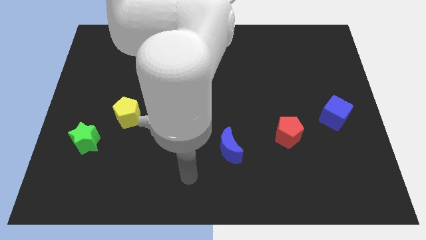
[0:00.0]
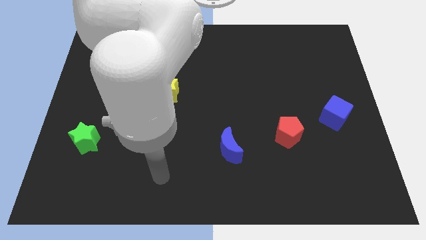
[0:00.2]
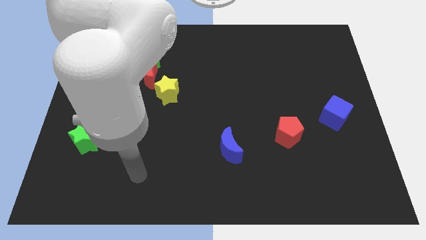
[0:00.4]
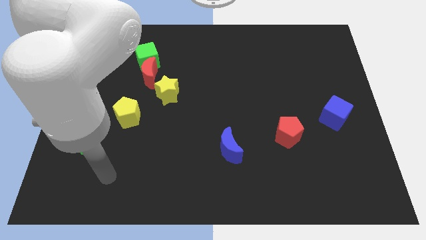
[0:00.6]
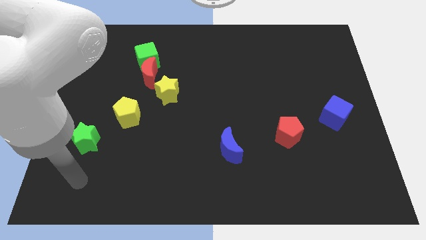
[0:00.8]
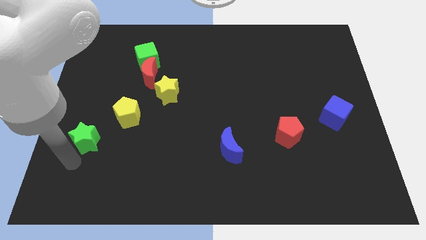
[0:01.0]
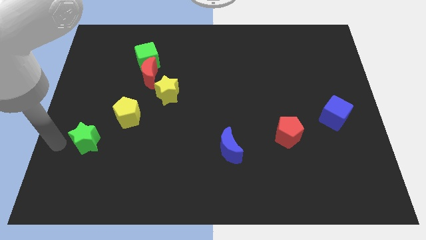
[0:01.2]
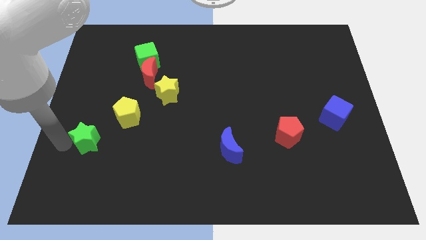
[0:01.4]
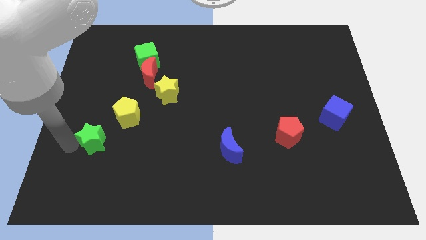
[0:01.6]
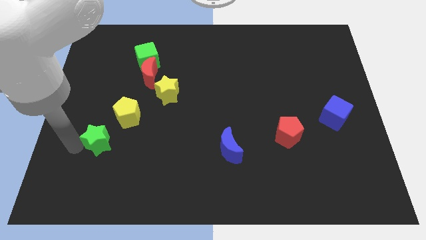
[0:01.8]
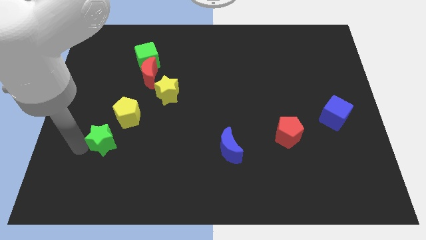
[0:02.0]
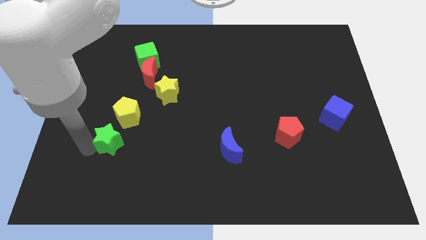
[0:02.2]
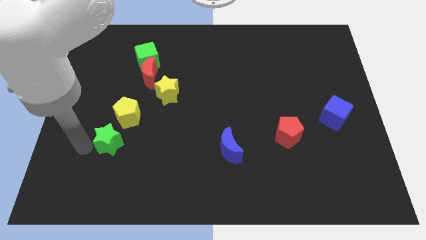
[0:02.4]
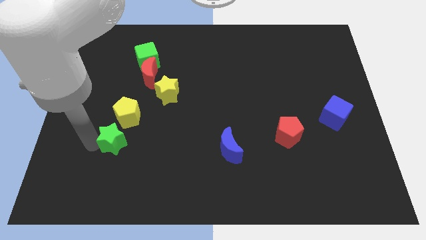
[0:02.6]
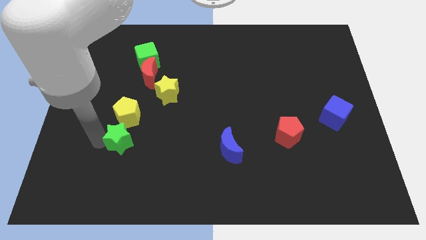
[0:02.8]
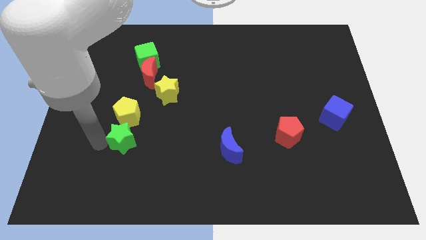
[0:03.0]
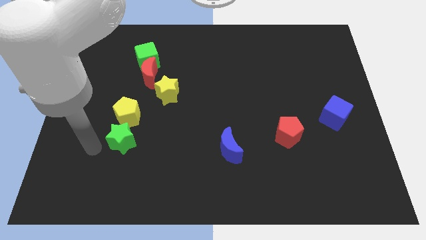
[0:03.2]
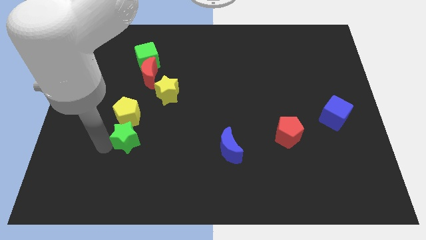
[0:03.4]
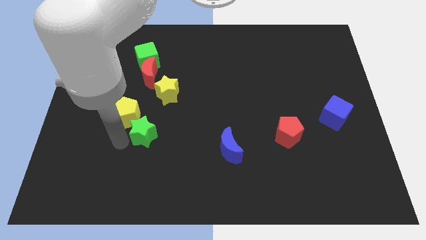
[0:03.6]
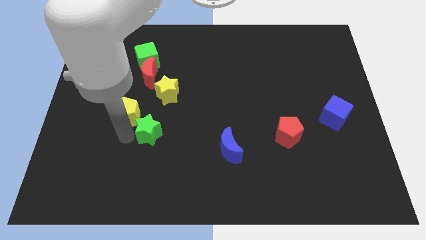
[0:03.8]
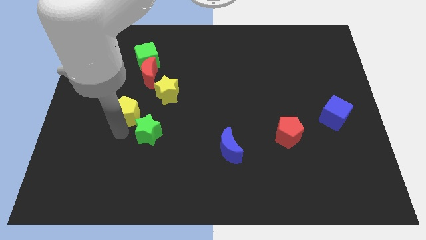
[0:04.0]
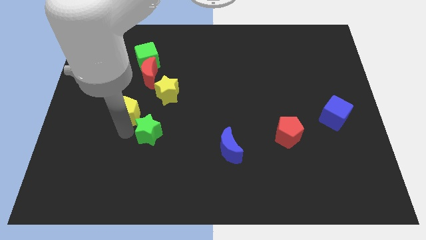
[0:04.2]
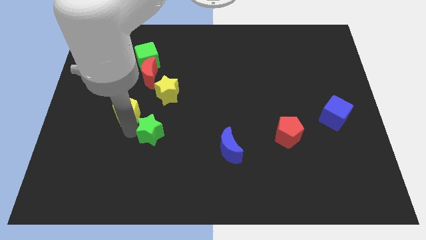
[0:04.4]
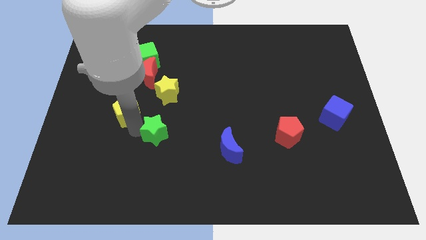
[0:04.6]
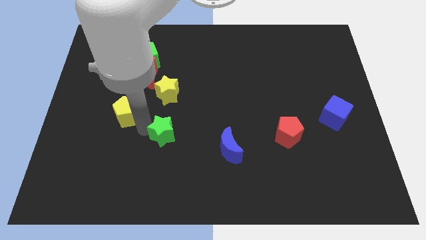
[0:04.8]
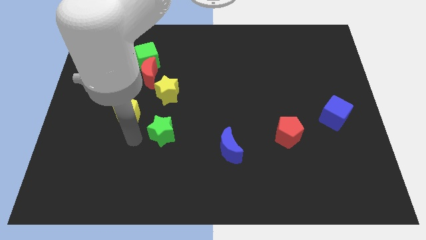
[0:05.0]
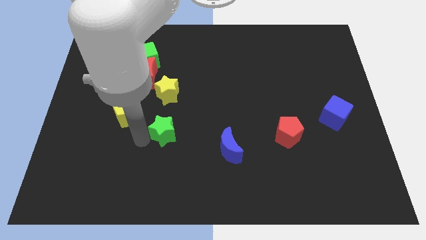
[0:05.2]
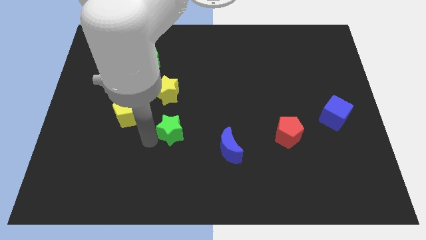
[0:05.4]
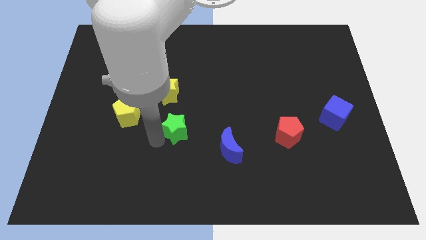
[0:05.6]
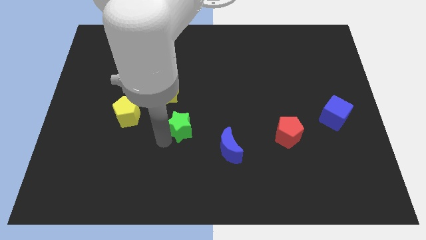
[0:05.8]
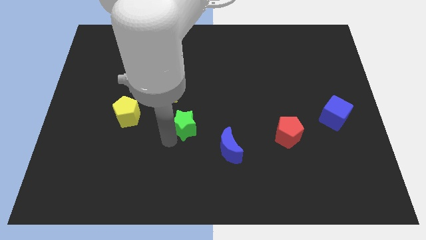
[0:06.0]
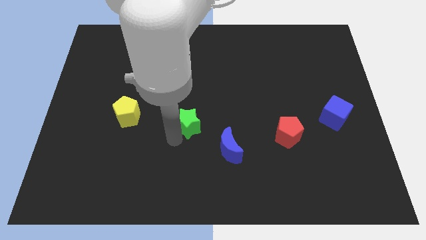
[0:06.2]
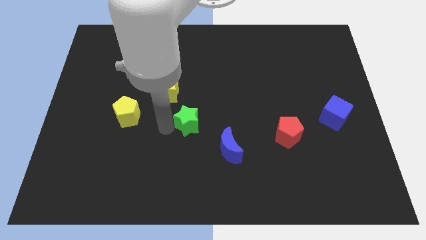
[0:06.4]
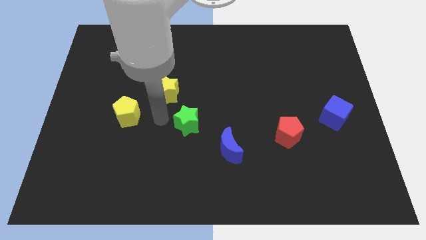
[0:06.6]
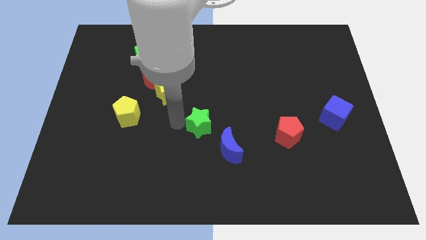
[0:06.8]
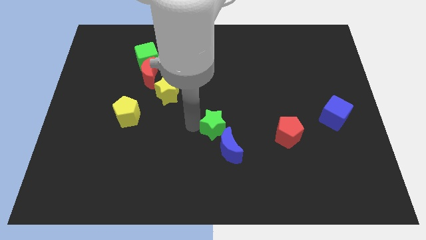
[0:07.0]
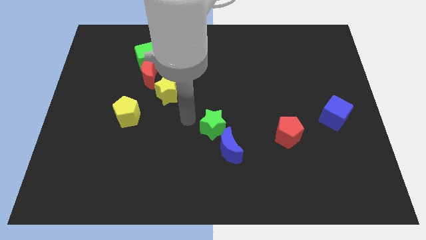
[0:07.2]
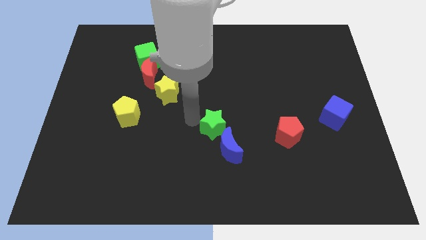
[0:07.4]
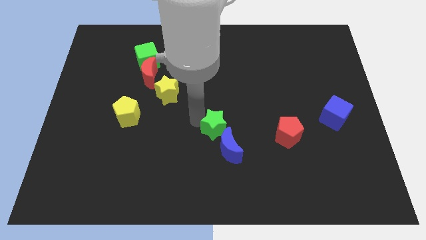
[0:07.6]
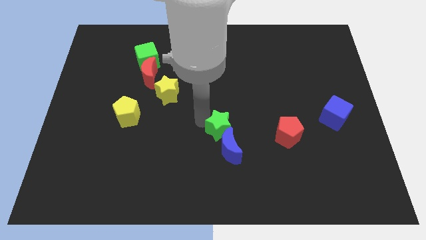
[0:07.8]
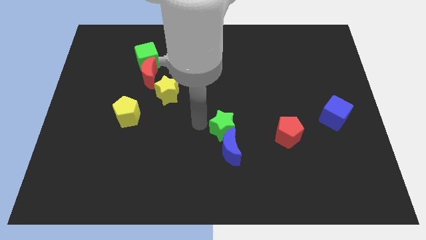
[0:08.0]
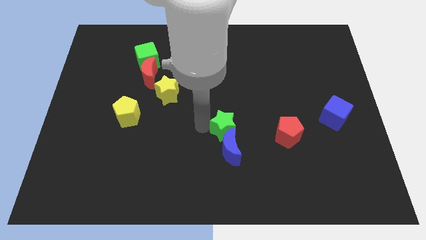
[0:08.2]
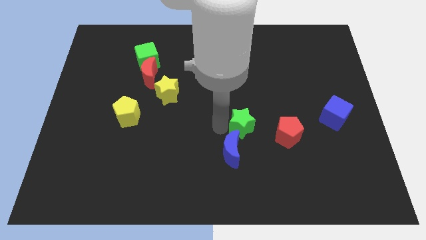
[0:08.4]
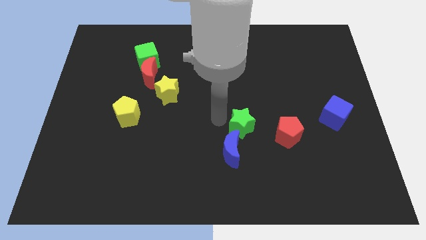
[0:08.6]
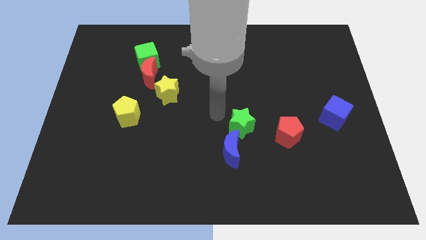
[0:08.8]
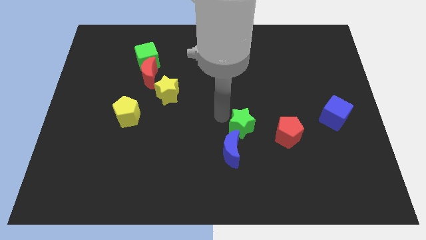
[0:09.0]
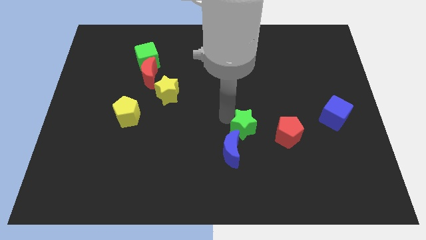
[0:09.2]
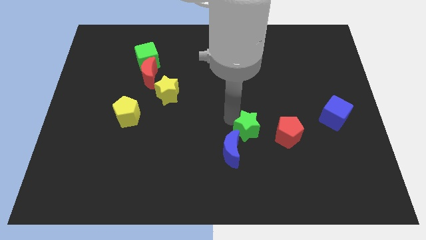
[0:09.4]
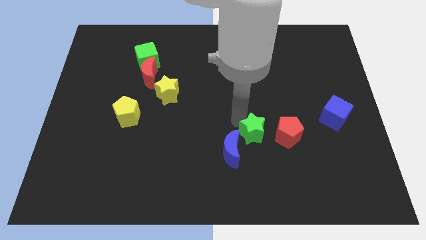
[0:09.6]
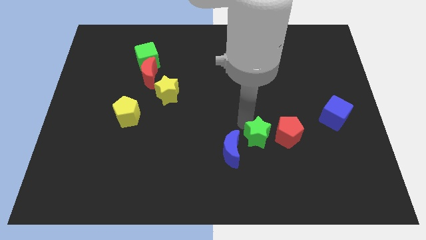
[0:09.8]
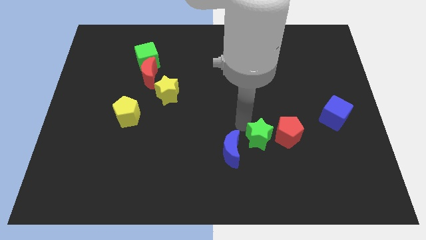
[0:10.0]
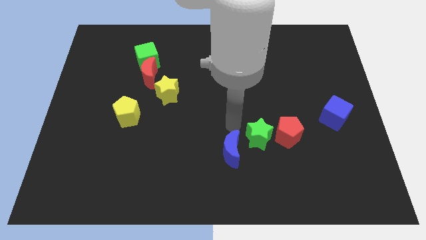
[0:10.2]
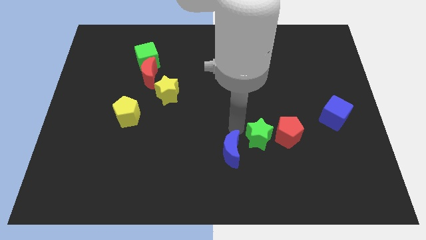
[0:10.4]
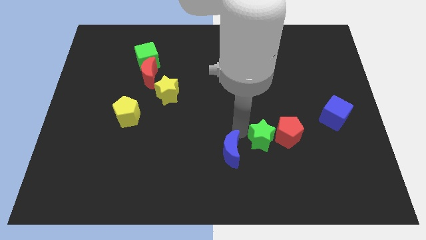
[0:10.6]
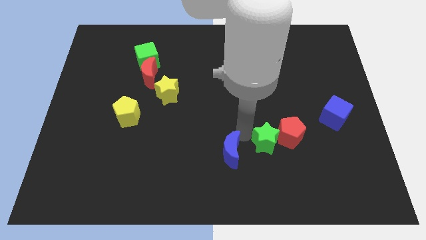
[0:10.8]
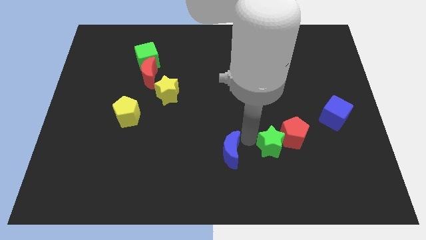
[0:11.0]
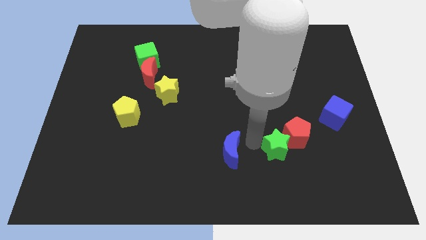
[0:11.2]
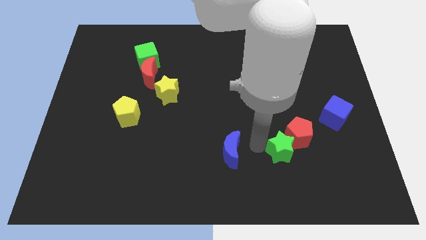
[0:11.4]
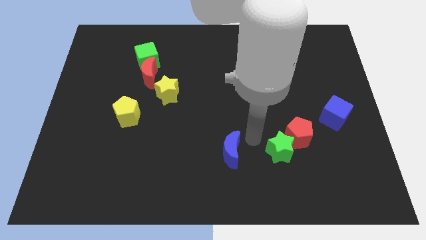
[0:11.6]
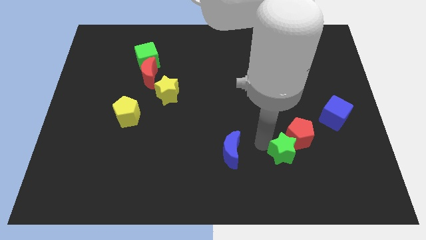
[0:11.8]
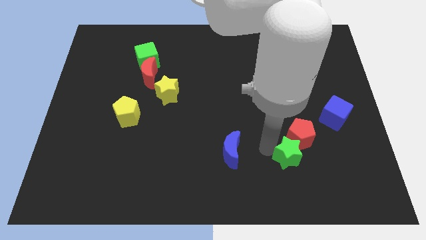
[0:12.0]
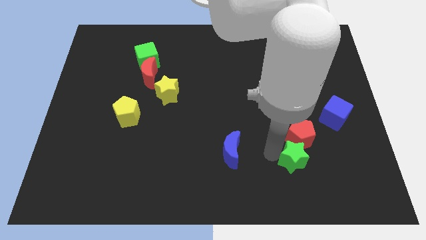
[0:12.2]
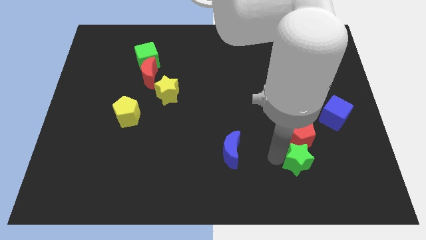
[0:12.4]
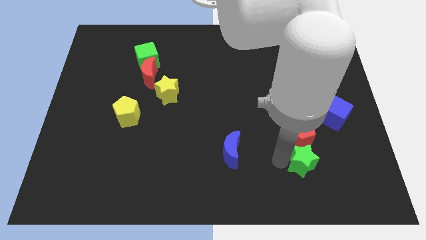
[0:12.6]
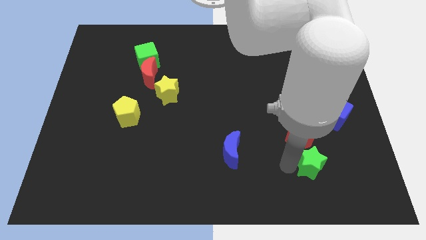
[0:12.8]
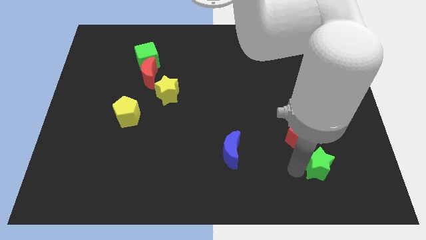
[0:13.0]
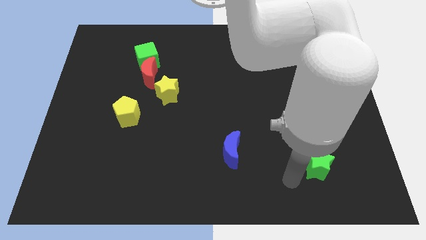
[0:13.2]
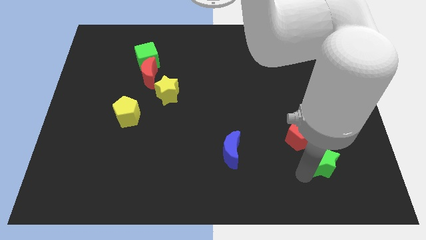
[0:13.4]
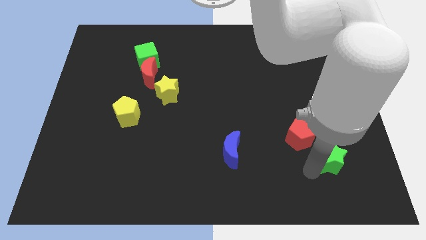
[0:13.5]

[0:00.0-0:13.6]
put the green star to the bottom side of the blue cube
